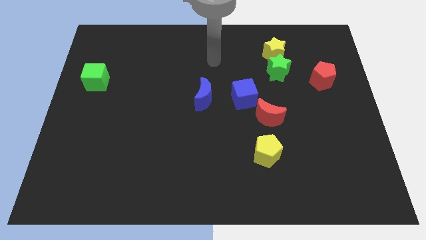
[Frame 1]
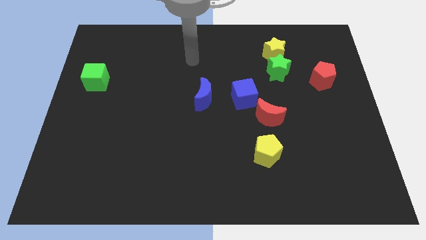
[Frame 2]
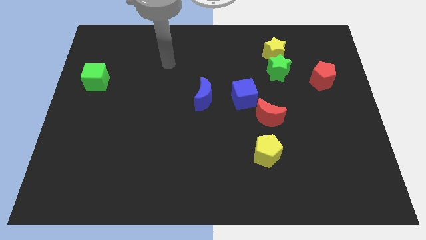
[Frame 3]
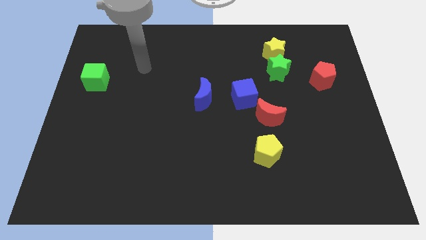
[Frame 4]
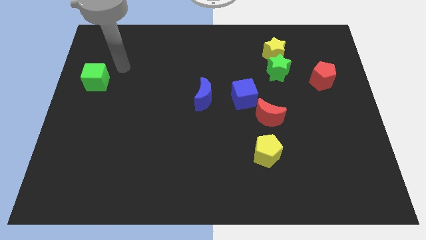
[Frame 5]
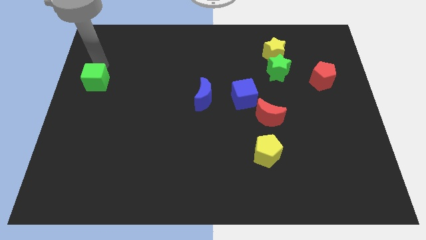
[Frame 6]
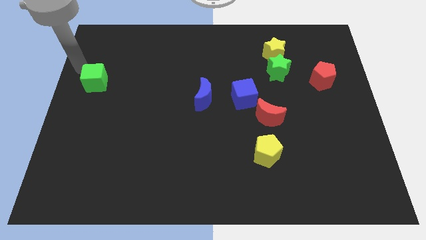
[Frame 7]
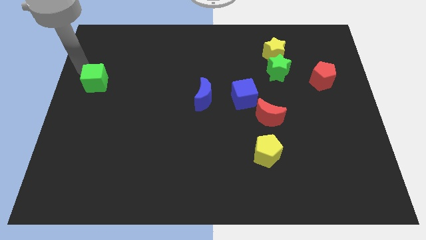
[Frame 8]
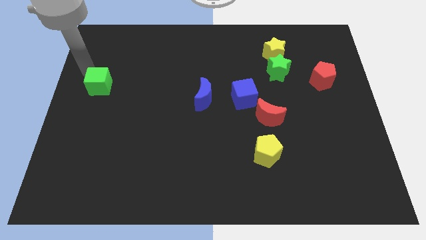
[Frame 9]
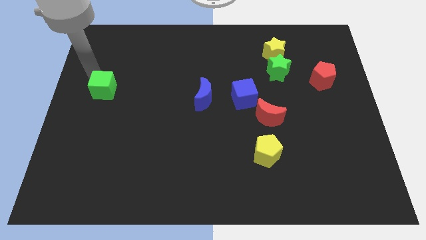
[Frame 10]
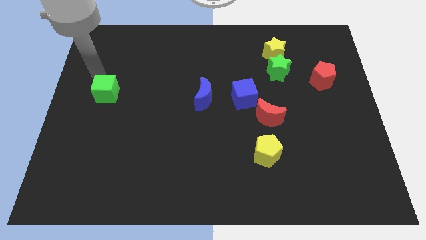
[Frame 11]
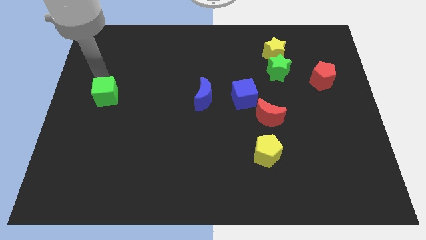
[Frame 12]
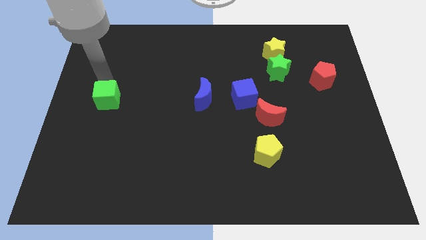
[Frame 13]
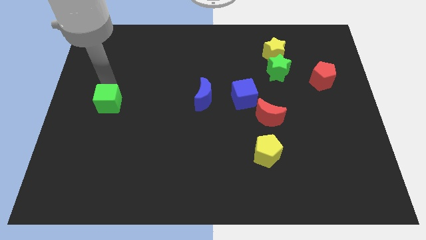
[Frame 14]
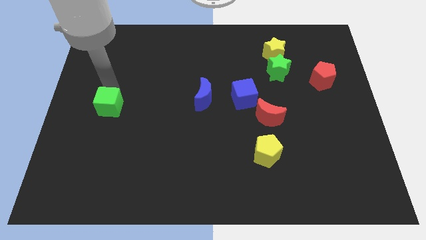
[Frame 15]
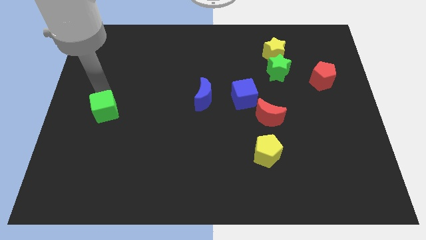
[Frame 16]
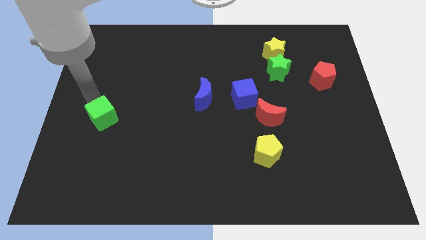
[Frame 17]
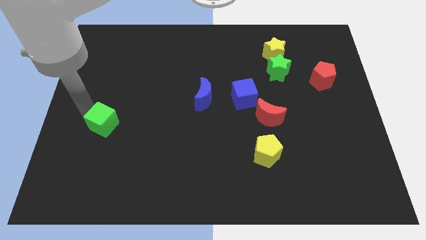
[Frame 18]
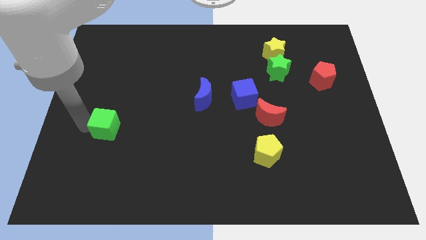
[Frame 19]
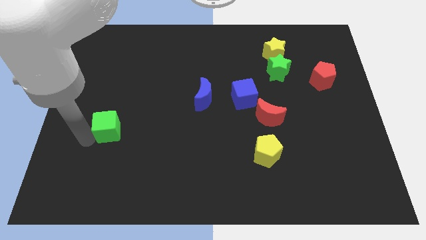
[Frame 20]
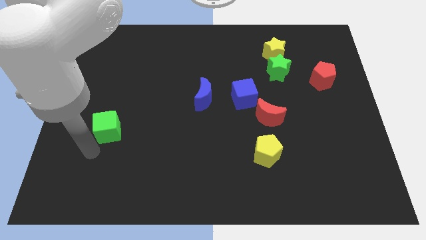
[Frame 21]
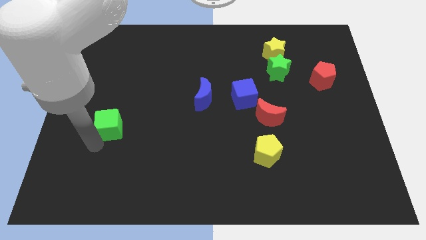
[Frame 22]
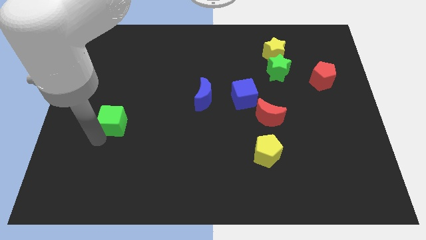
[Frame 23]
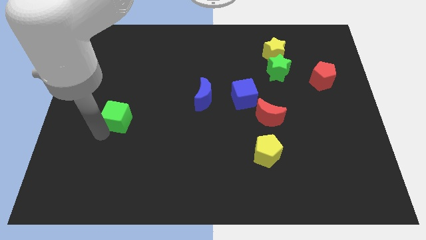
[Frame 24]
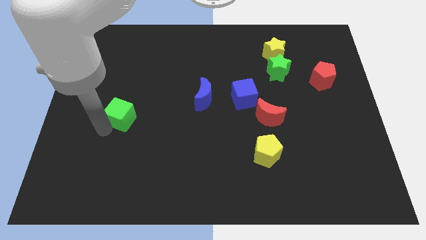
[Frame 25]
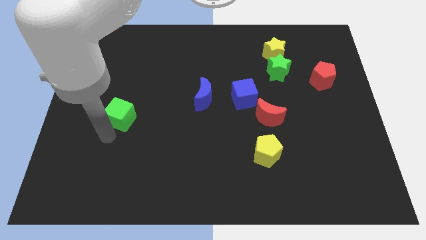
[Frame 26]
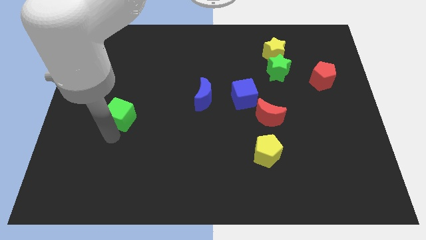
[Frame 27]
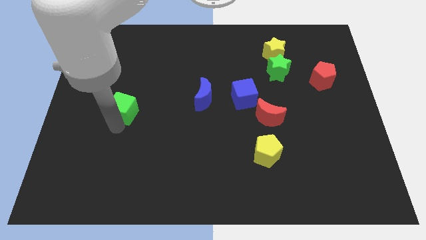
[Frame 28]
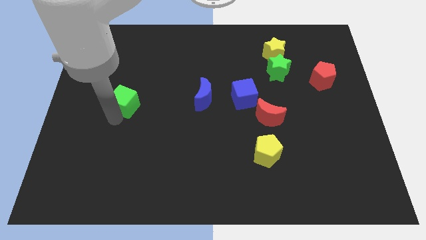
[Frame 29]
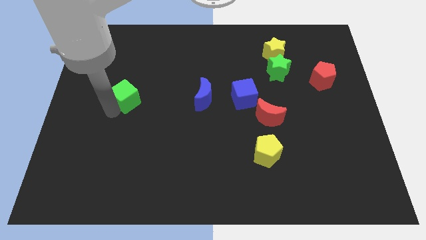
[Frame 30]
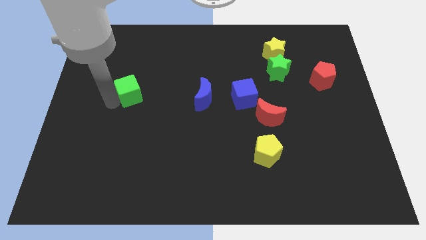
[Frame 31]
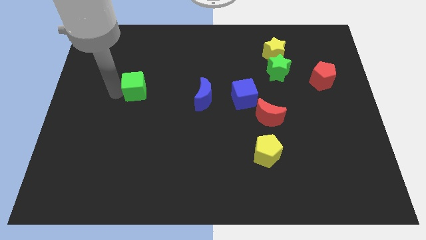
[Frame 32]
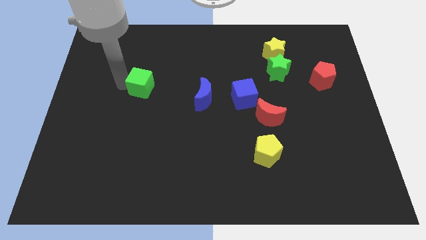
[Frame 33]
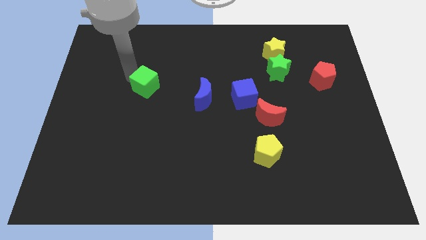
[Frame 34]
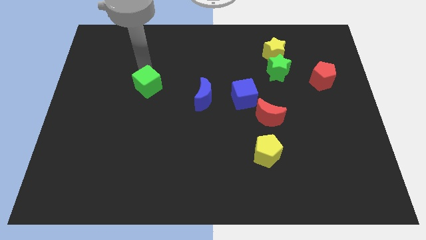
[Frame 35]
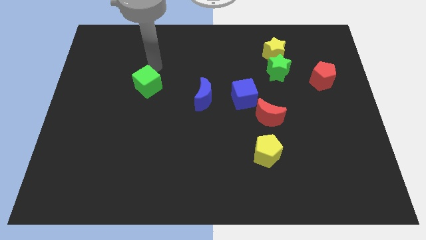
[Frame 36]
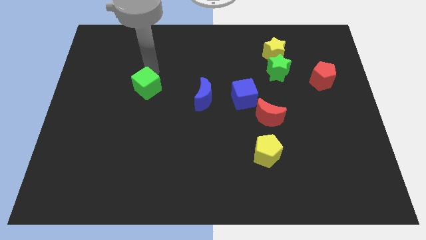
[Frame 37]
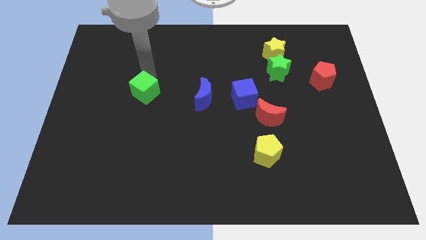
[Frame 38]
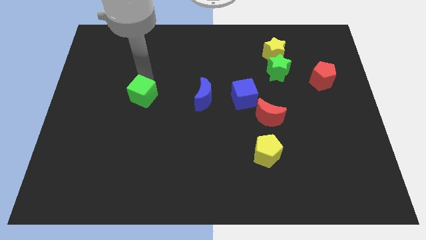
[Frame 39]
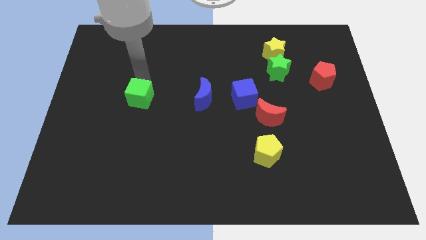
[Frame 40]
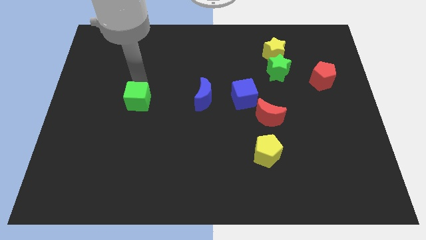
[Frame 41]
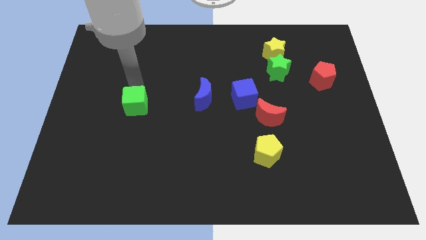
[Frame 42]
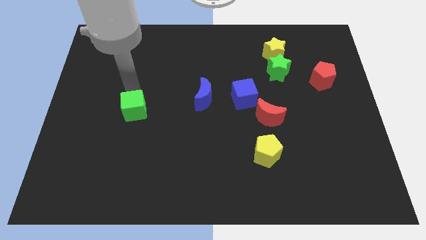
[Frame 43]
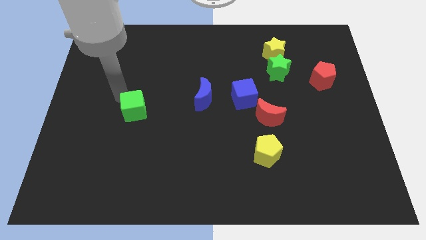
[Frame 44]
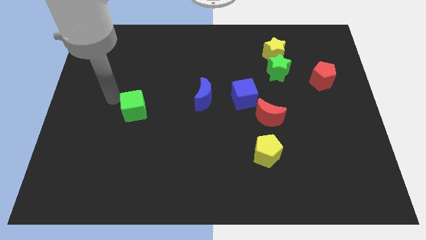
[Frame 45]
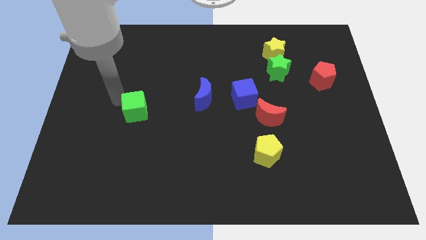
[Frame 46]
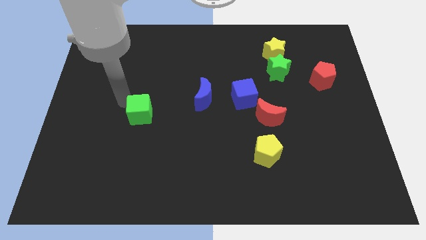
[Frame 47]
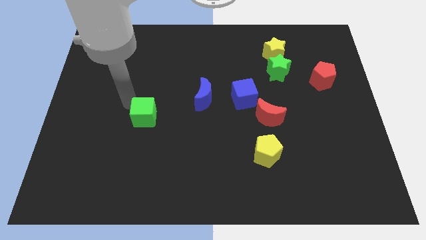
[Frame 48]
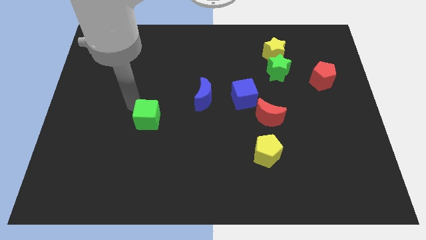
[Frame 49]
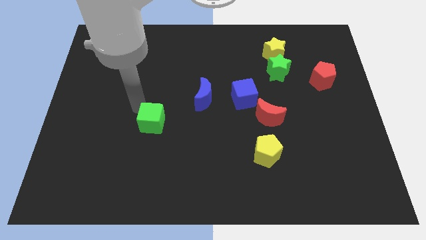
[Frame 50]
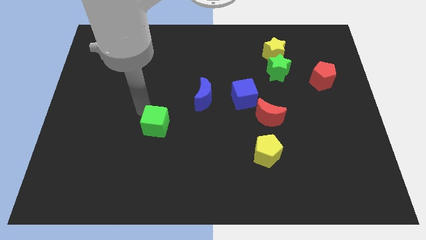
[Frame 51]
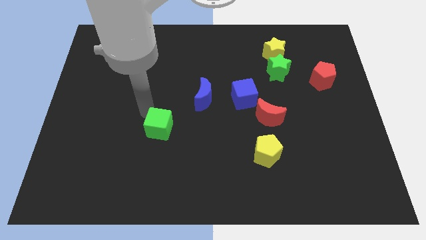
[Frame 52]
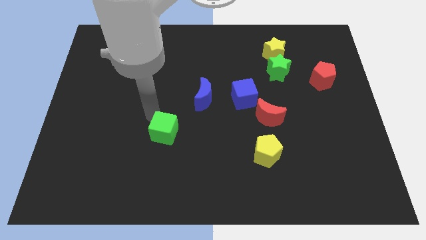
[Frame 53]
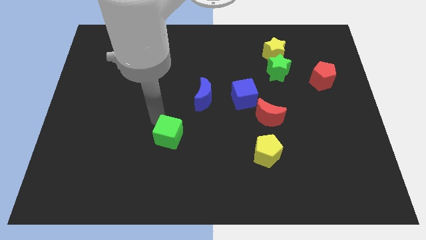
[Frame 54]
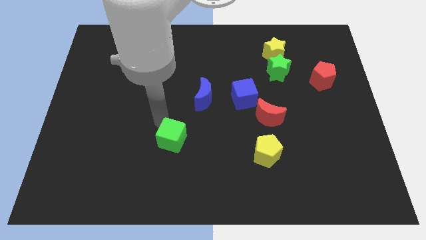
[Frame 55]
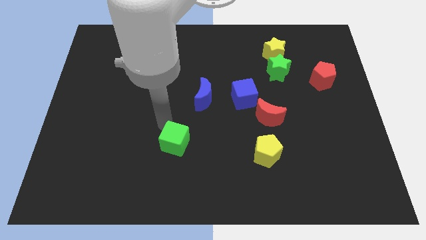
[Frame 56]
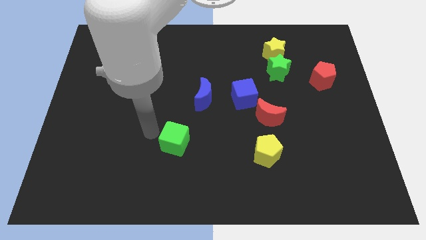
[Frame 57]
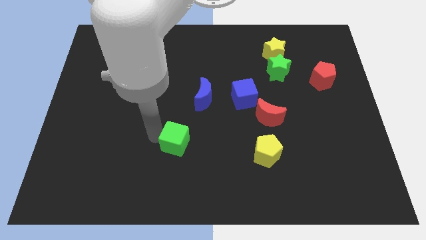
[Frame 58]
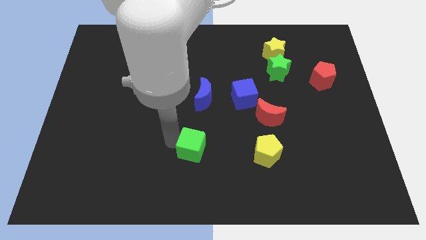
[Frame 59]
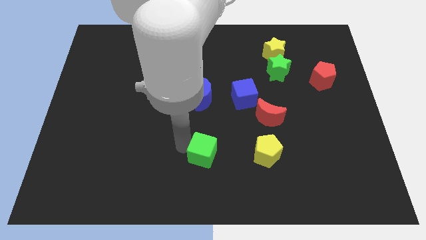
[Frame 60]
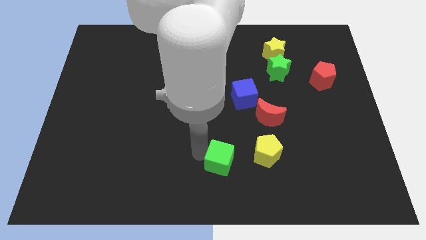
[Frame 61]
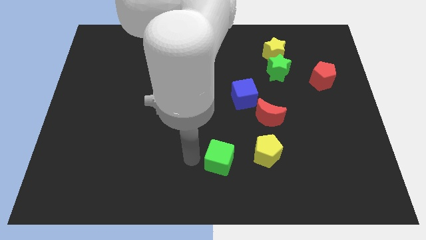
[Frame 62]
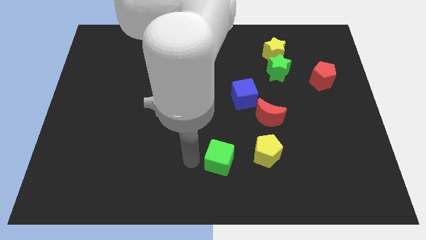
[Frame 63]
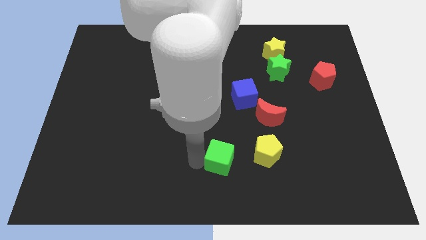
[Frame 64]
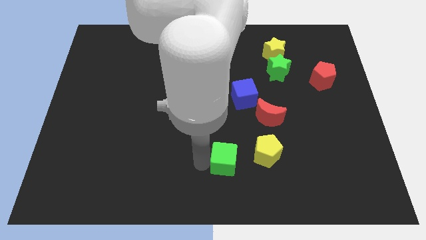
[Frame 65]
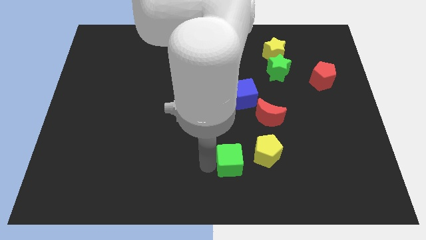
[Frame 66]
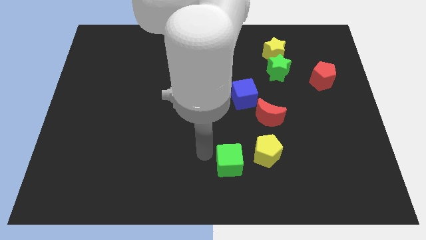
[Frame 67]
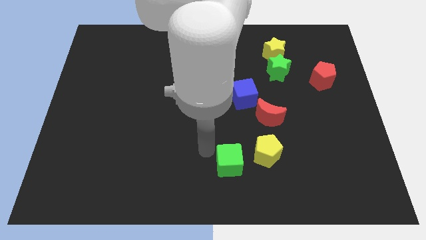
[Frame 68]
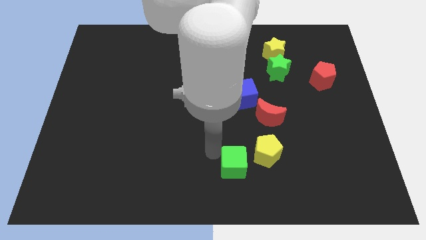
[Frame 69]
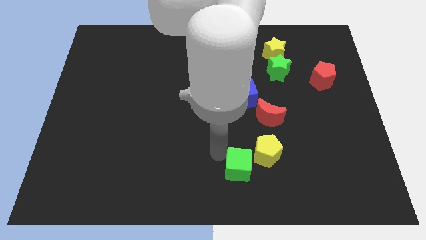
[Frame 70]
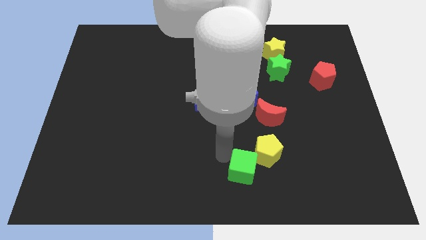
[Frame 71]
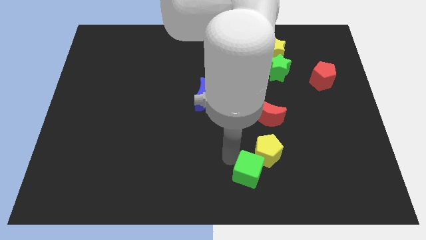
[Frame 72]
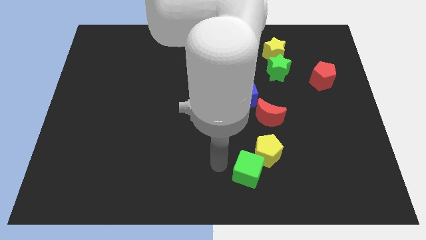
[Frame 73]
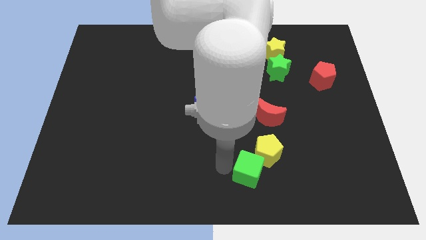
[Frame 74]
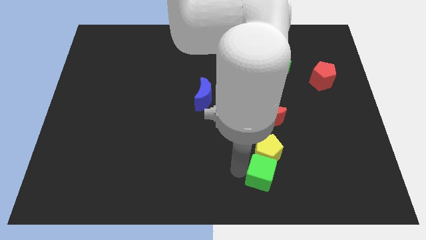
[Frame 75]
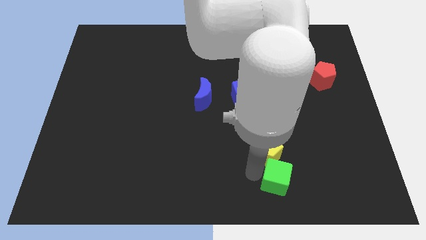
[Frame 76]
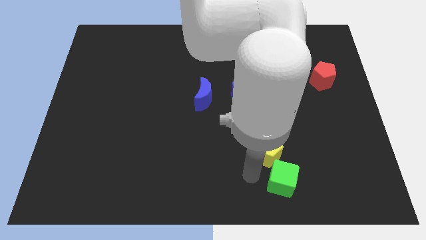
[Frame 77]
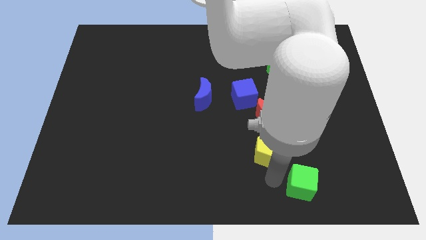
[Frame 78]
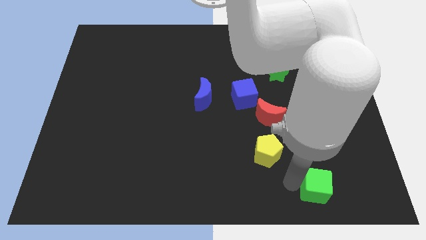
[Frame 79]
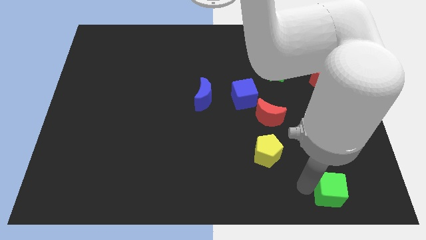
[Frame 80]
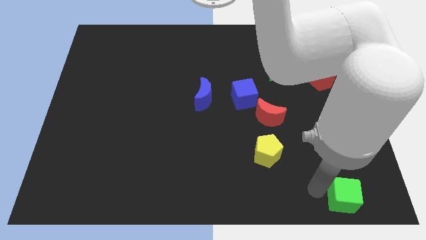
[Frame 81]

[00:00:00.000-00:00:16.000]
put the green cube to the lower right corner
